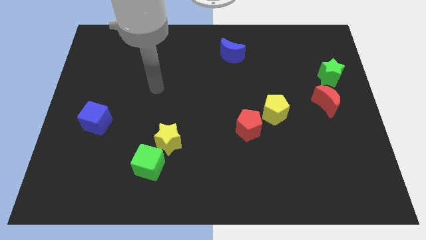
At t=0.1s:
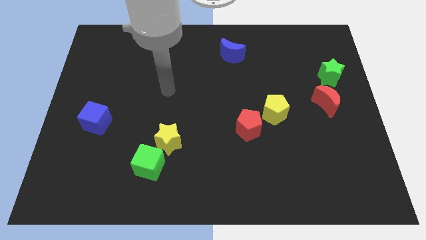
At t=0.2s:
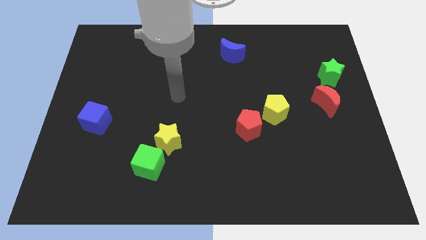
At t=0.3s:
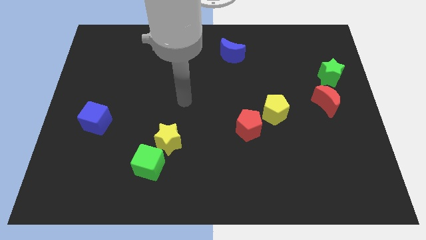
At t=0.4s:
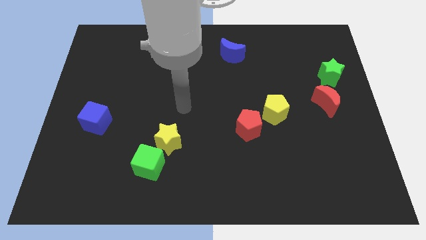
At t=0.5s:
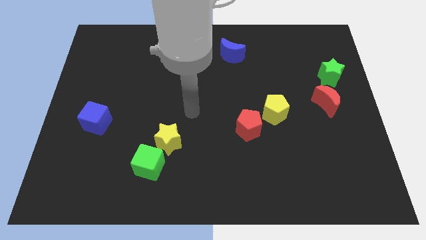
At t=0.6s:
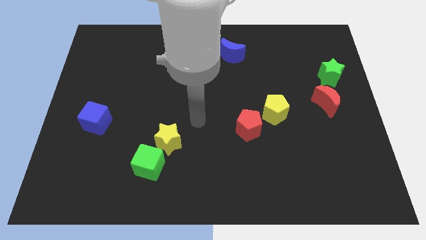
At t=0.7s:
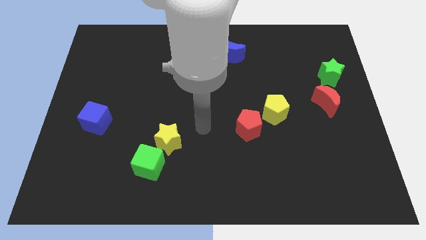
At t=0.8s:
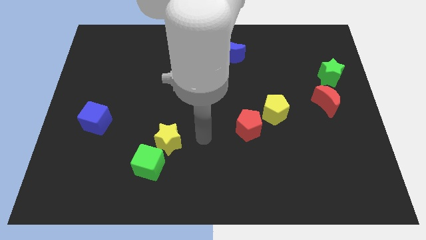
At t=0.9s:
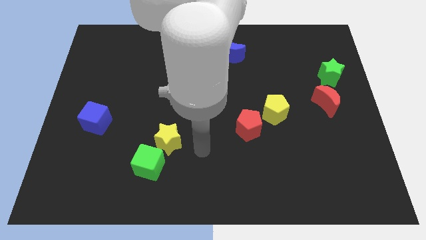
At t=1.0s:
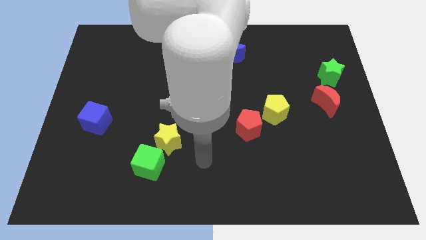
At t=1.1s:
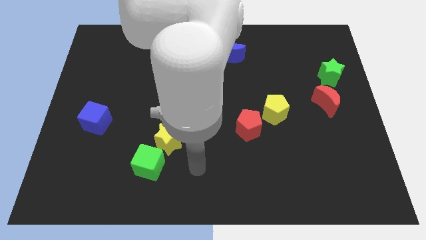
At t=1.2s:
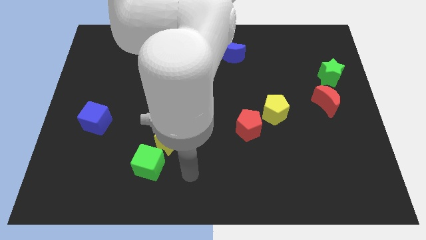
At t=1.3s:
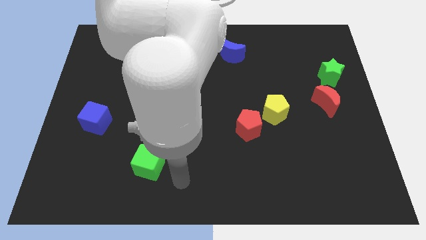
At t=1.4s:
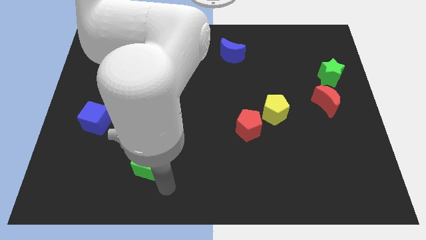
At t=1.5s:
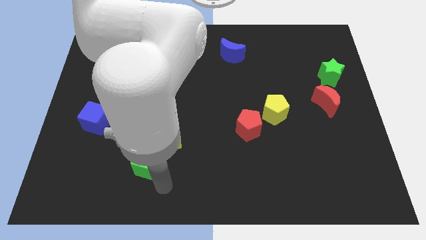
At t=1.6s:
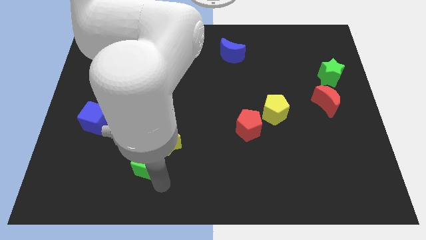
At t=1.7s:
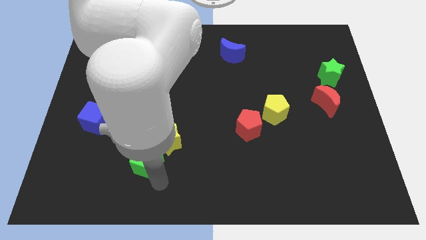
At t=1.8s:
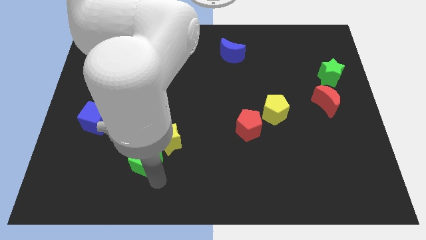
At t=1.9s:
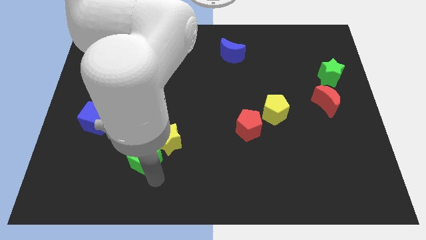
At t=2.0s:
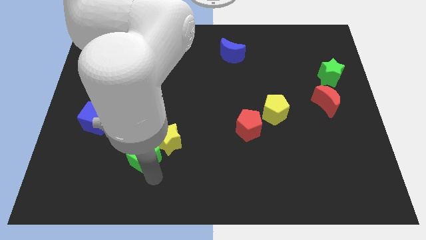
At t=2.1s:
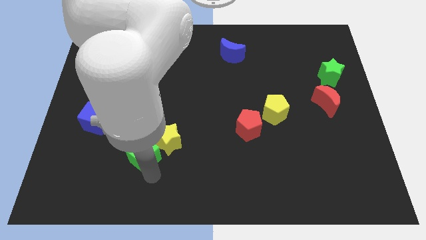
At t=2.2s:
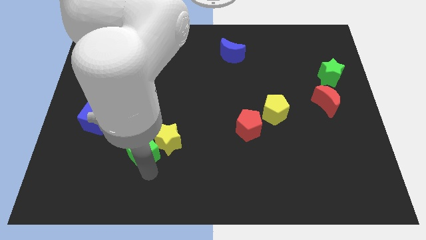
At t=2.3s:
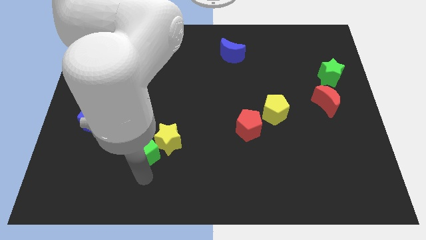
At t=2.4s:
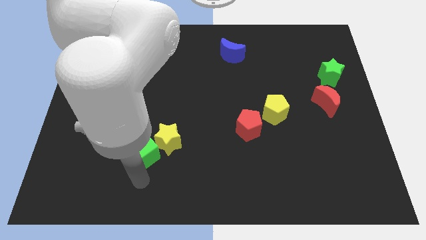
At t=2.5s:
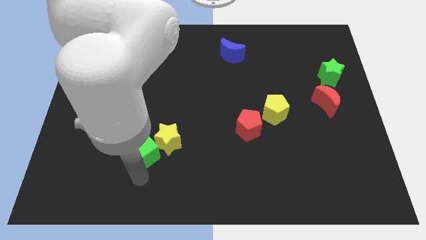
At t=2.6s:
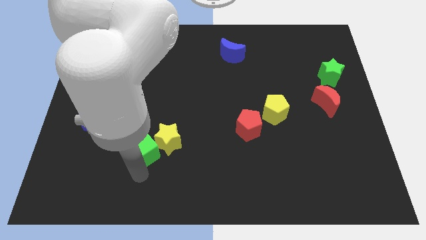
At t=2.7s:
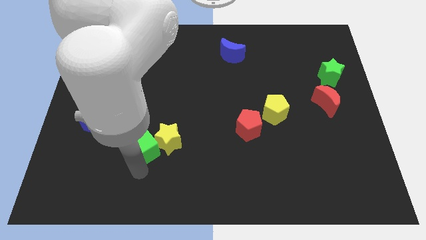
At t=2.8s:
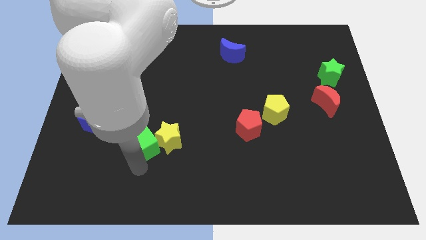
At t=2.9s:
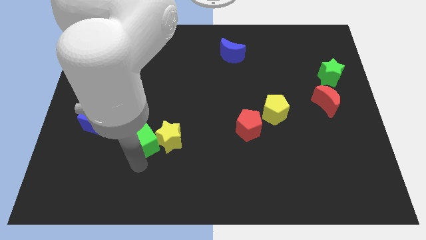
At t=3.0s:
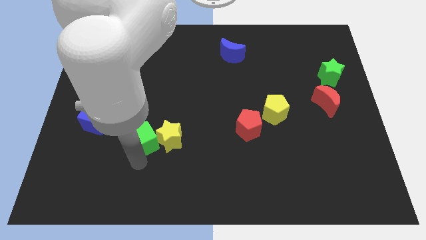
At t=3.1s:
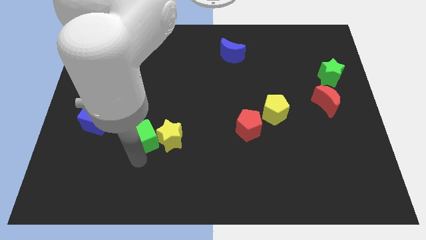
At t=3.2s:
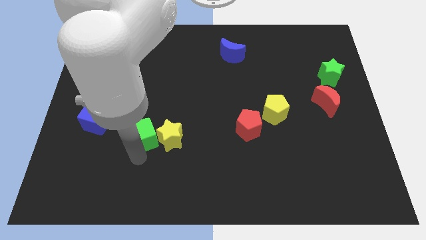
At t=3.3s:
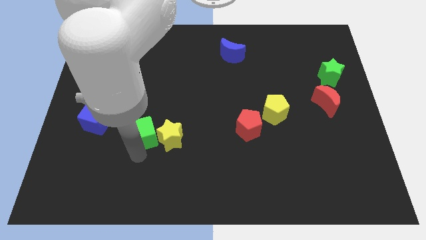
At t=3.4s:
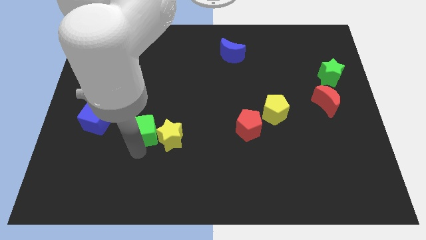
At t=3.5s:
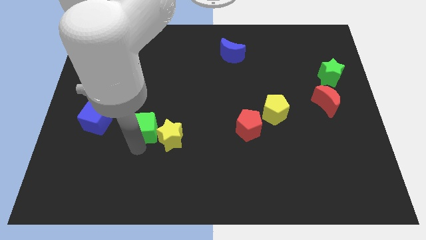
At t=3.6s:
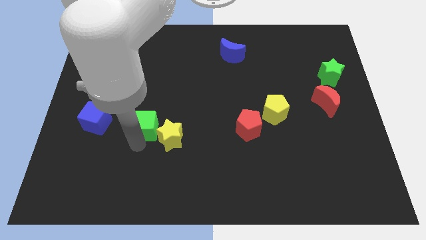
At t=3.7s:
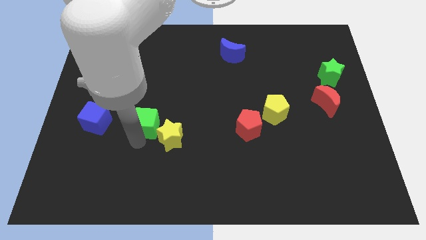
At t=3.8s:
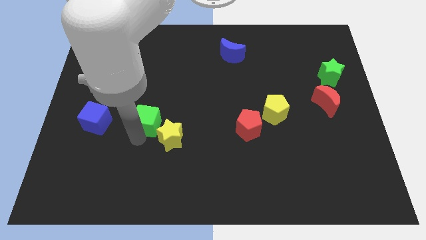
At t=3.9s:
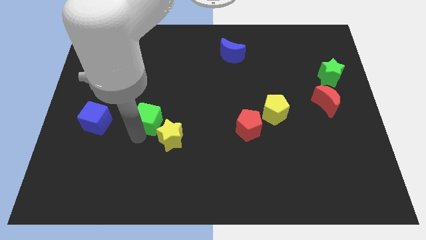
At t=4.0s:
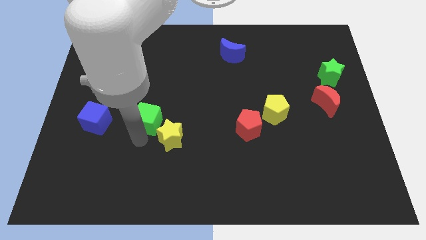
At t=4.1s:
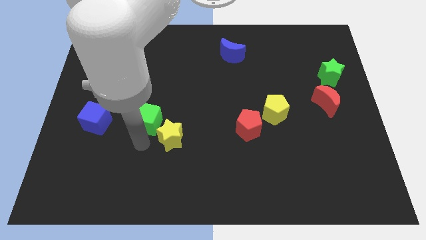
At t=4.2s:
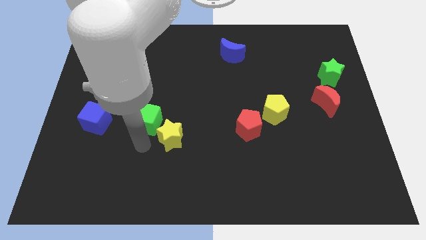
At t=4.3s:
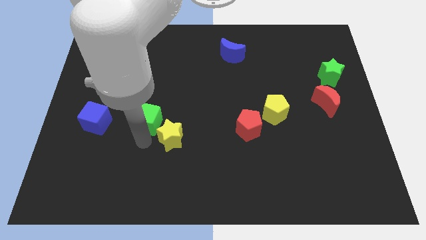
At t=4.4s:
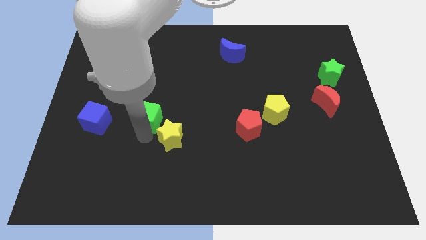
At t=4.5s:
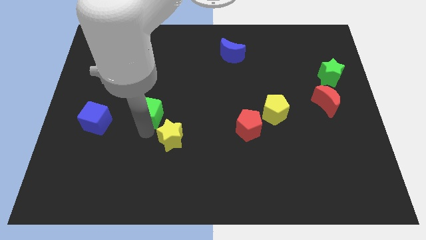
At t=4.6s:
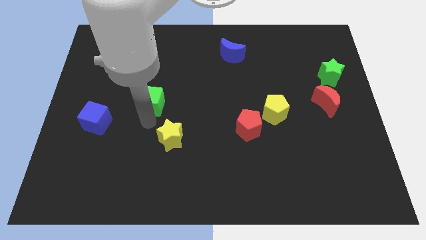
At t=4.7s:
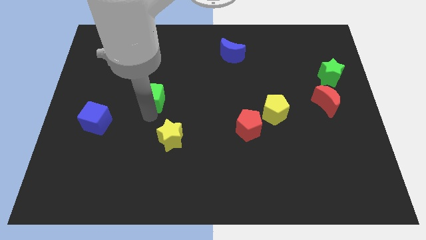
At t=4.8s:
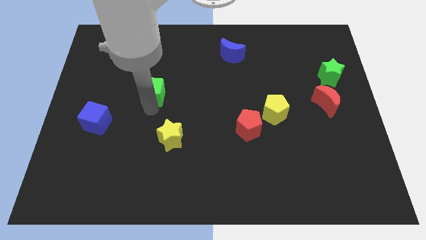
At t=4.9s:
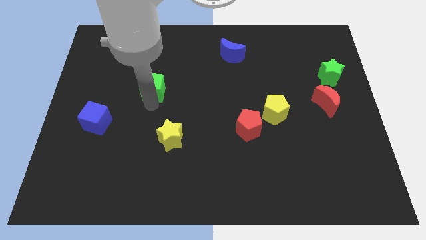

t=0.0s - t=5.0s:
move the green cube up

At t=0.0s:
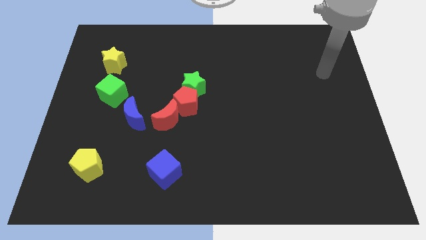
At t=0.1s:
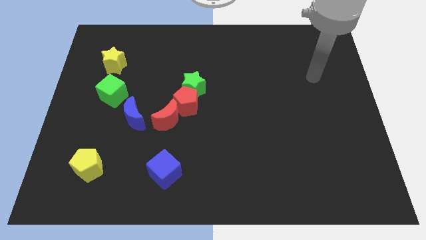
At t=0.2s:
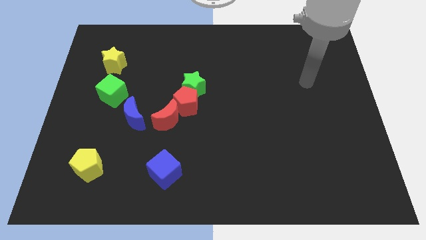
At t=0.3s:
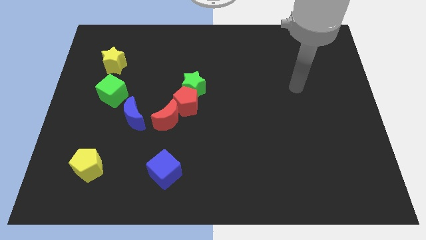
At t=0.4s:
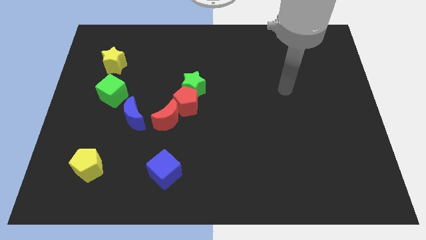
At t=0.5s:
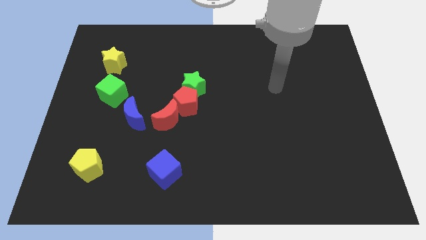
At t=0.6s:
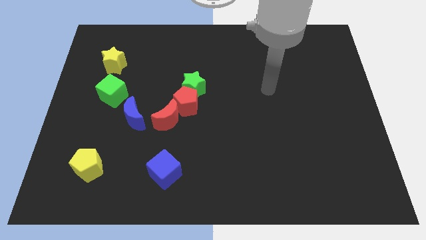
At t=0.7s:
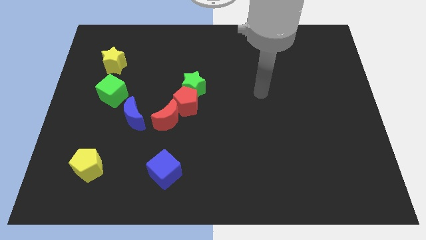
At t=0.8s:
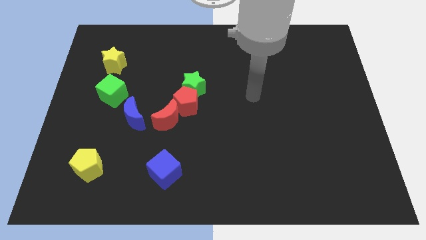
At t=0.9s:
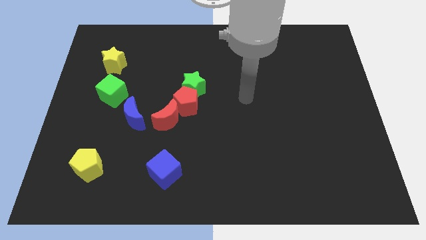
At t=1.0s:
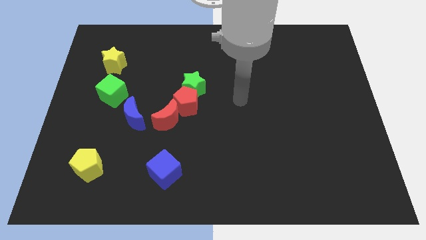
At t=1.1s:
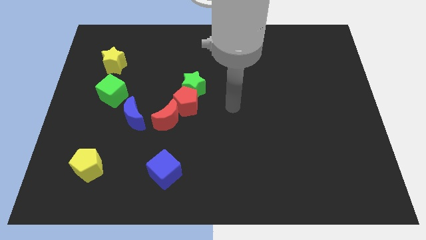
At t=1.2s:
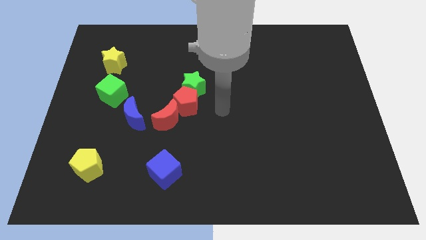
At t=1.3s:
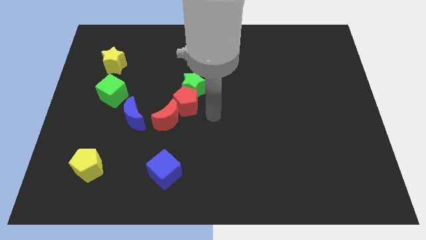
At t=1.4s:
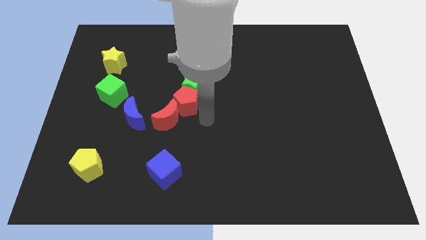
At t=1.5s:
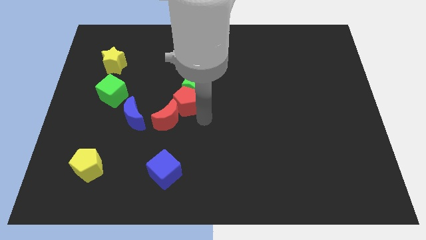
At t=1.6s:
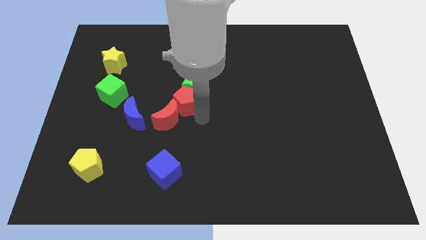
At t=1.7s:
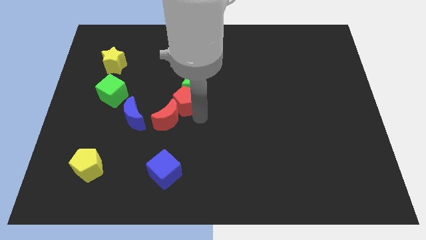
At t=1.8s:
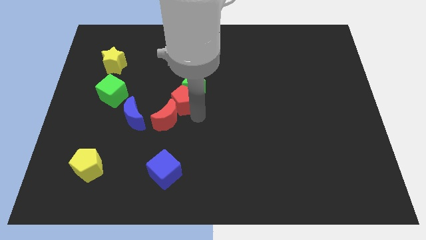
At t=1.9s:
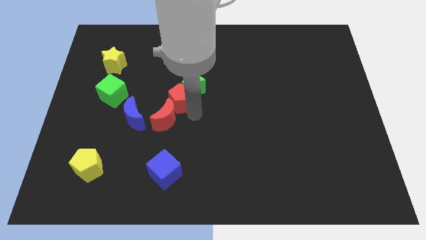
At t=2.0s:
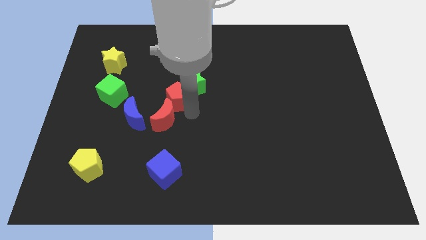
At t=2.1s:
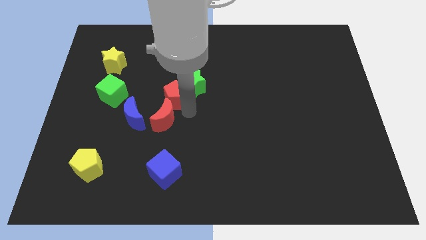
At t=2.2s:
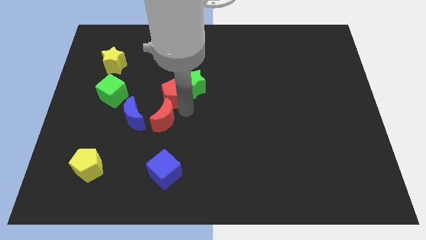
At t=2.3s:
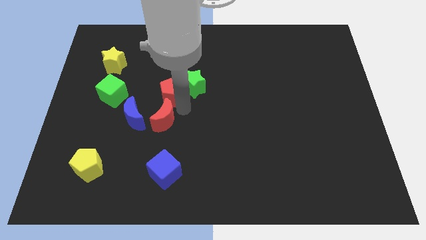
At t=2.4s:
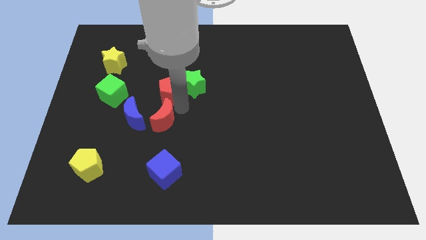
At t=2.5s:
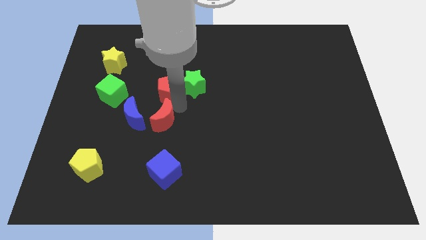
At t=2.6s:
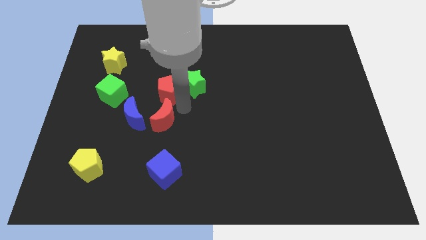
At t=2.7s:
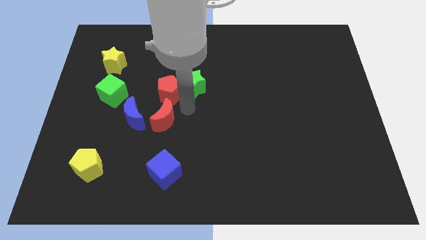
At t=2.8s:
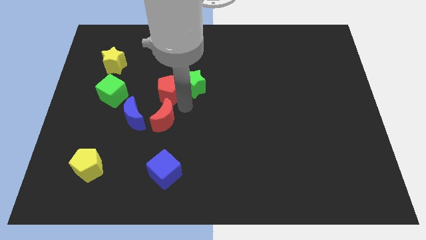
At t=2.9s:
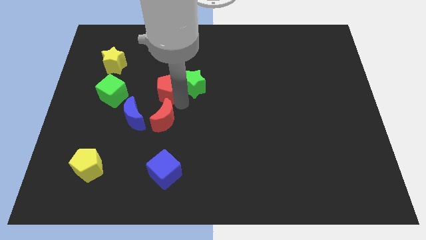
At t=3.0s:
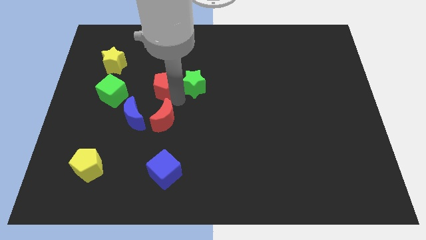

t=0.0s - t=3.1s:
slide the red pentagon a bit up and left diagonally
